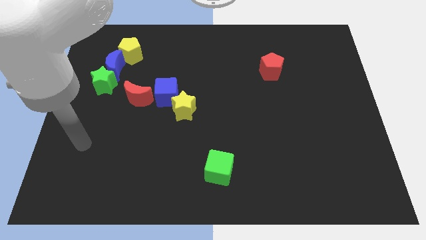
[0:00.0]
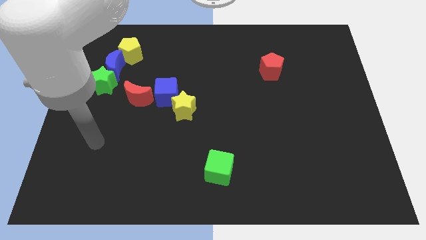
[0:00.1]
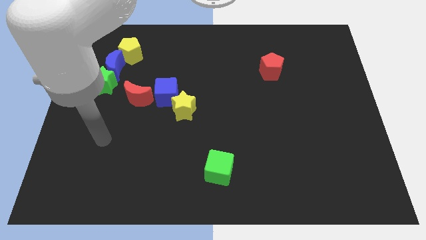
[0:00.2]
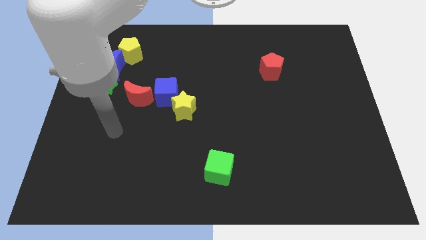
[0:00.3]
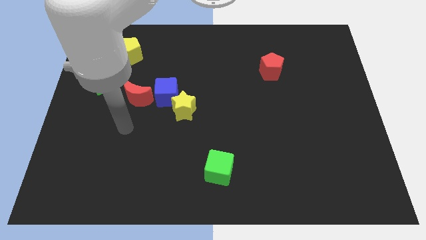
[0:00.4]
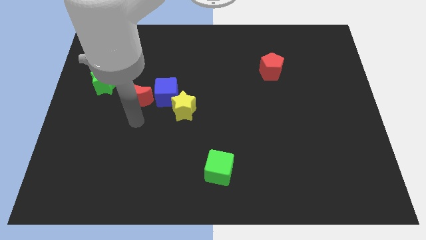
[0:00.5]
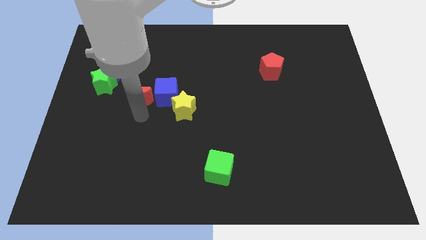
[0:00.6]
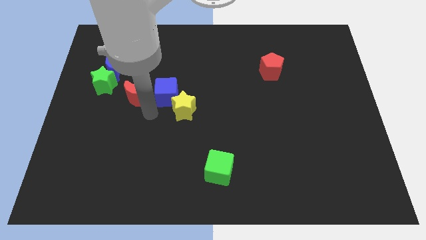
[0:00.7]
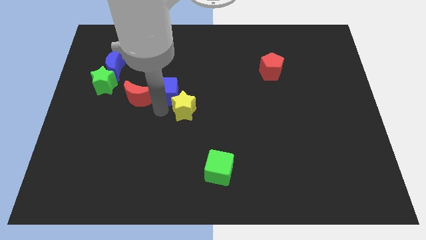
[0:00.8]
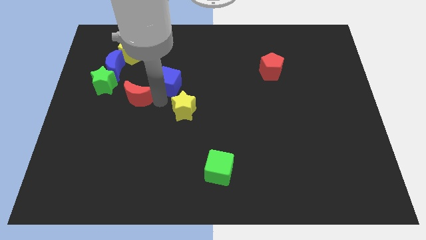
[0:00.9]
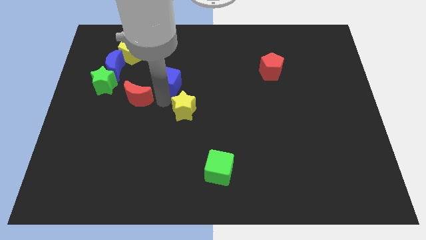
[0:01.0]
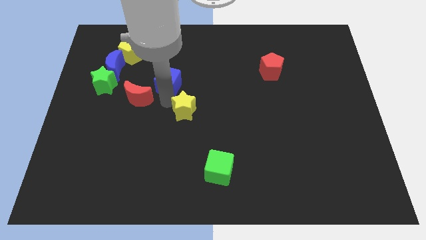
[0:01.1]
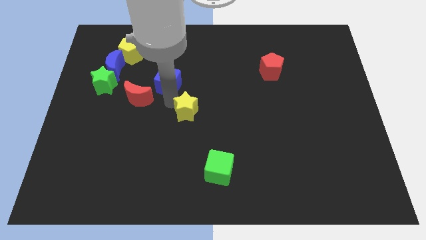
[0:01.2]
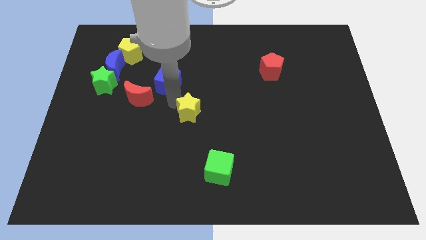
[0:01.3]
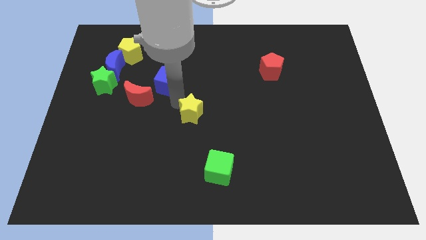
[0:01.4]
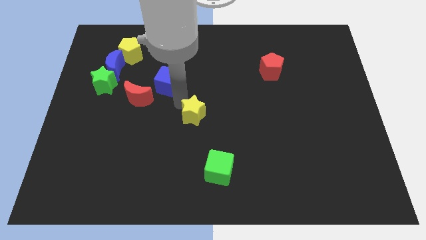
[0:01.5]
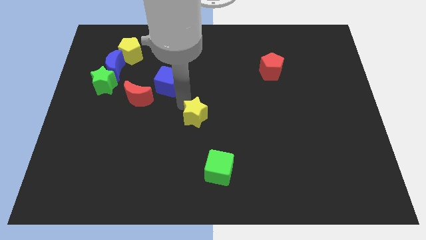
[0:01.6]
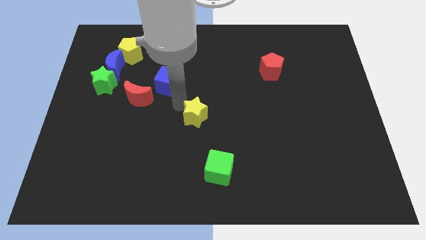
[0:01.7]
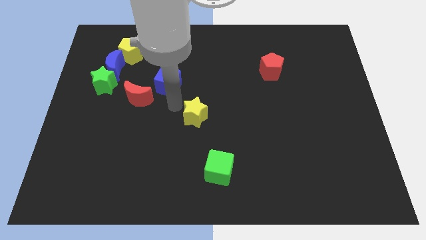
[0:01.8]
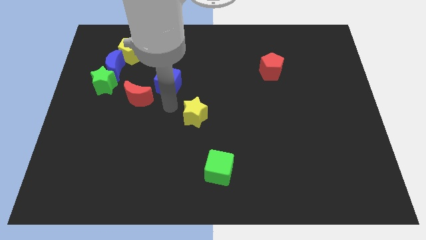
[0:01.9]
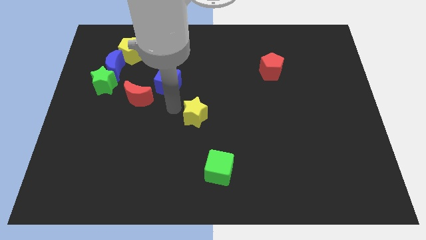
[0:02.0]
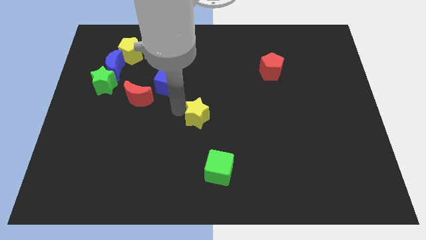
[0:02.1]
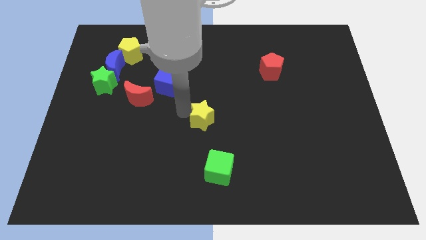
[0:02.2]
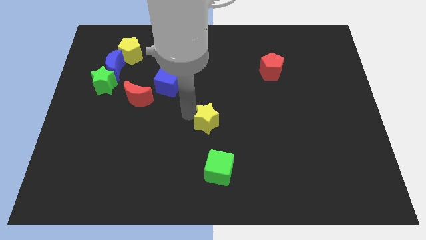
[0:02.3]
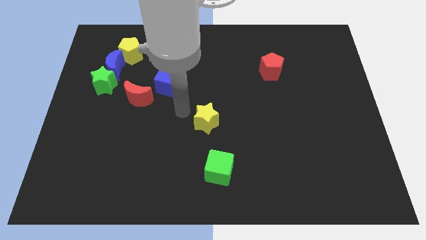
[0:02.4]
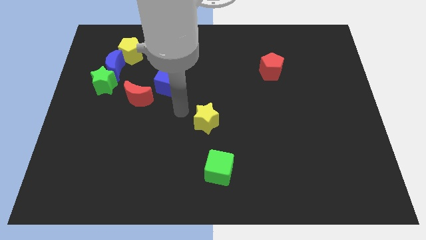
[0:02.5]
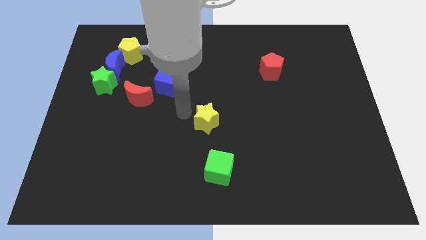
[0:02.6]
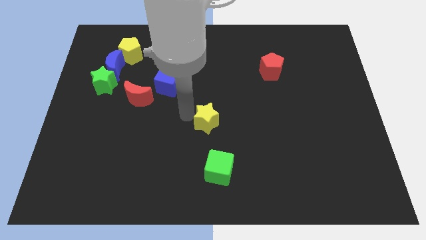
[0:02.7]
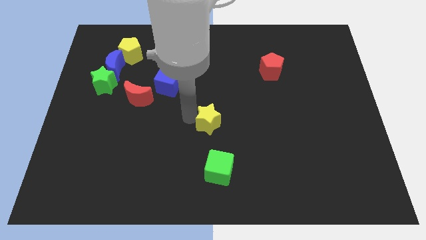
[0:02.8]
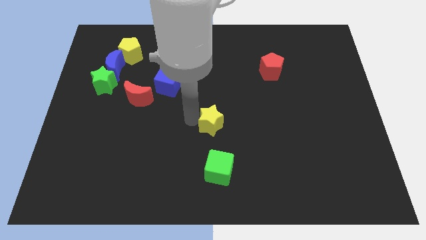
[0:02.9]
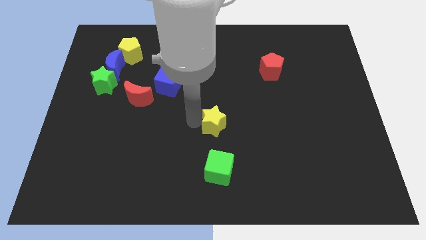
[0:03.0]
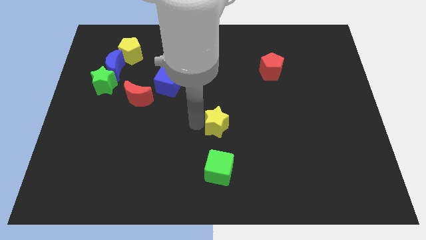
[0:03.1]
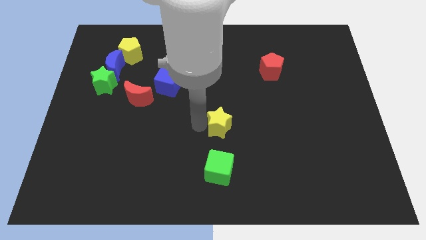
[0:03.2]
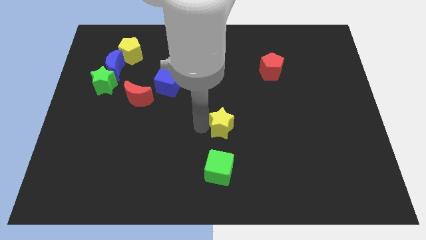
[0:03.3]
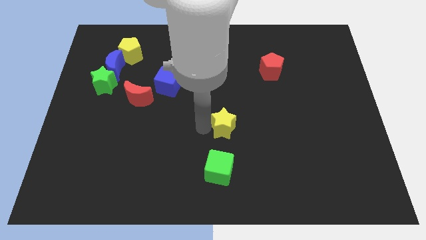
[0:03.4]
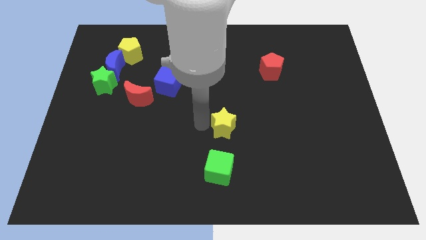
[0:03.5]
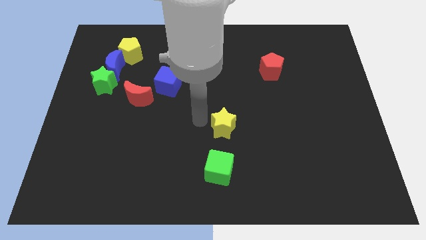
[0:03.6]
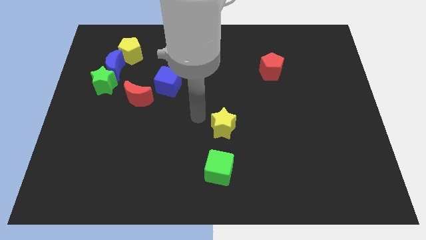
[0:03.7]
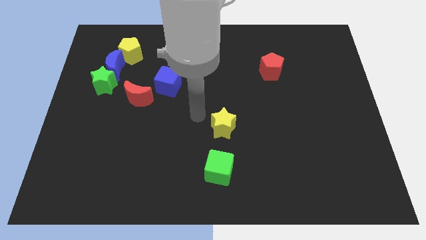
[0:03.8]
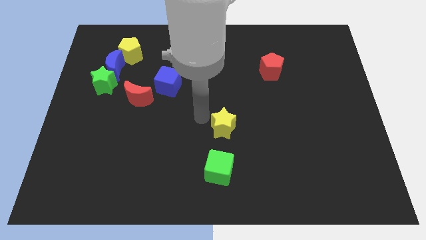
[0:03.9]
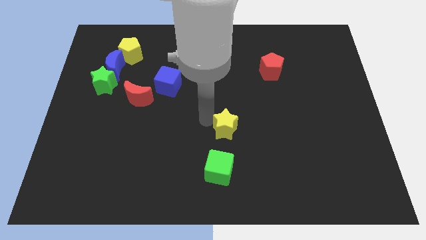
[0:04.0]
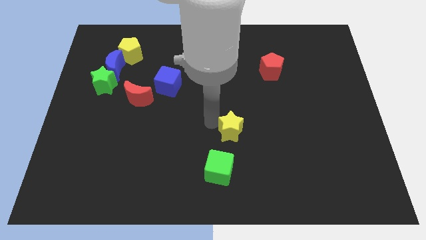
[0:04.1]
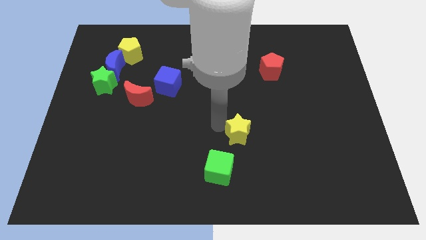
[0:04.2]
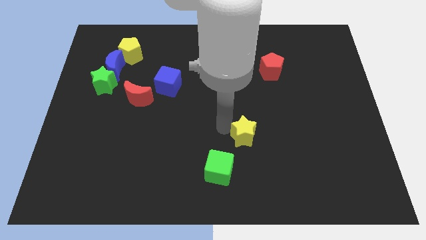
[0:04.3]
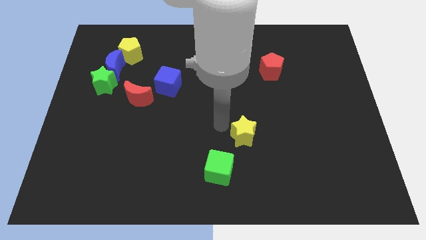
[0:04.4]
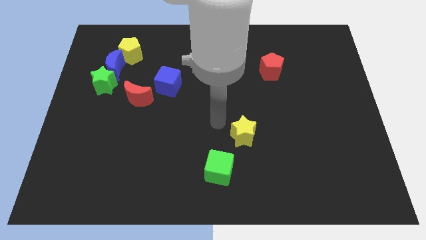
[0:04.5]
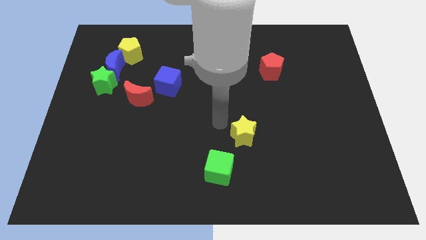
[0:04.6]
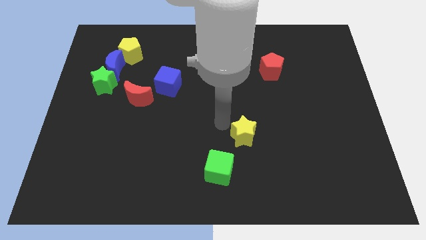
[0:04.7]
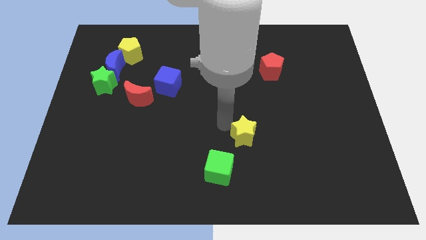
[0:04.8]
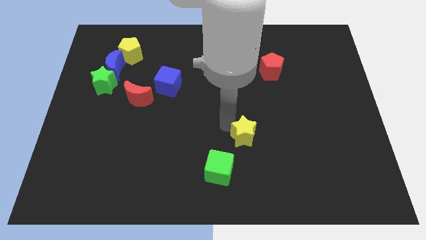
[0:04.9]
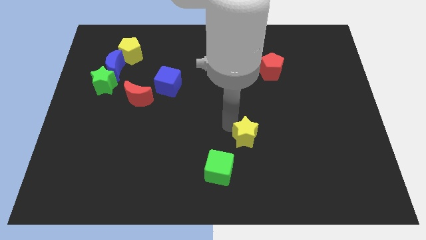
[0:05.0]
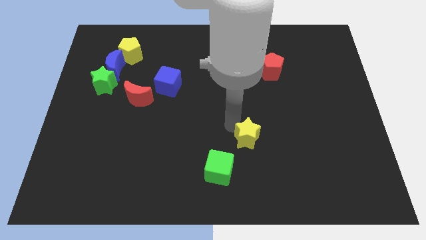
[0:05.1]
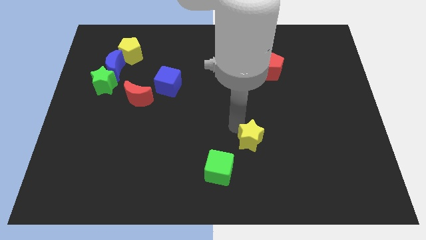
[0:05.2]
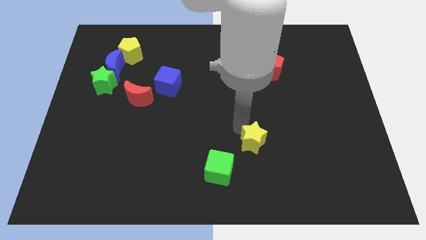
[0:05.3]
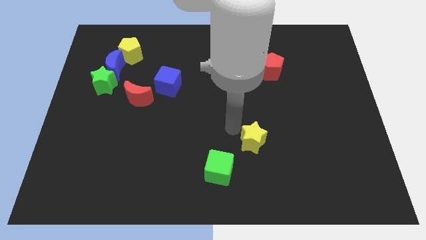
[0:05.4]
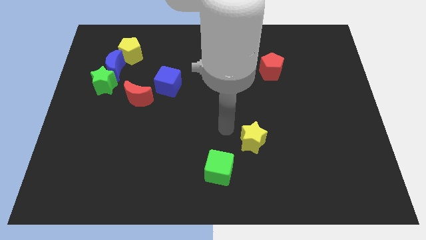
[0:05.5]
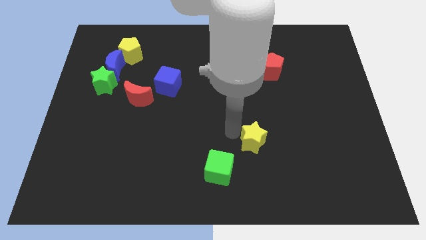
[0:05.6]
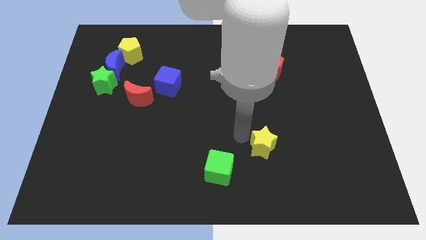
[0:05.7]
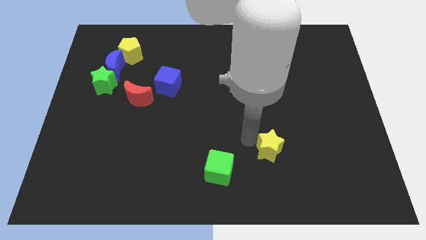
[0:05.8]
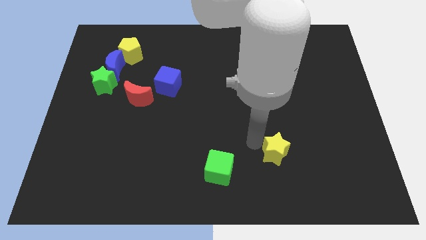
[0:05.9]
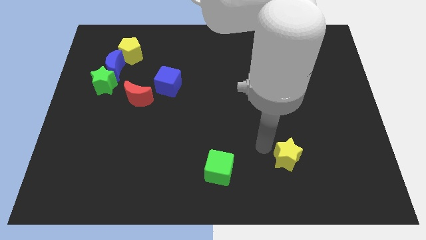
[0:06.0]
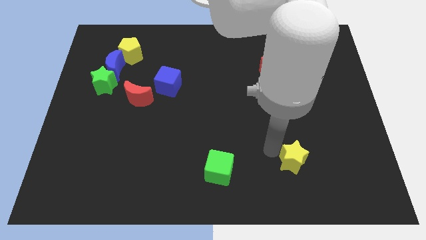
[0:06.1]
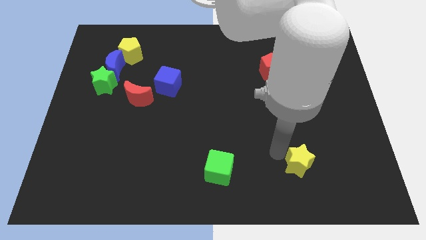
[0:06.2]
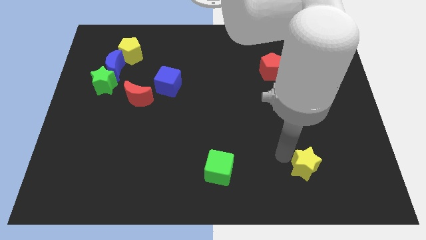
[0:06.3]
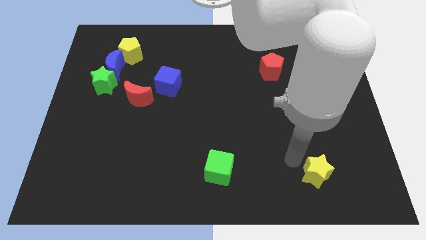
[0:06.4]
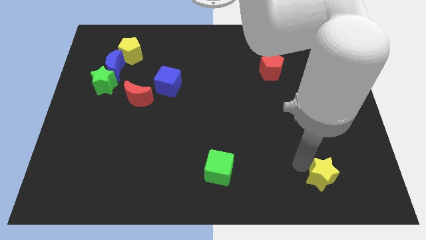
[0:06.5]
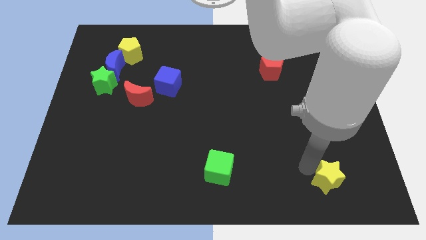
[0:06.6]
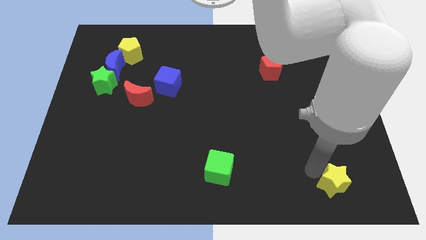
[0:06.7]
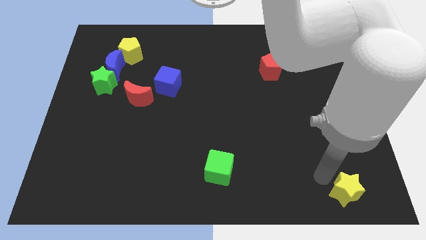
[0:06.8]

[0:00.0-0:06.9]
slide the yellow star to the bottom right of the board

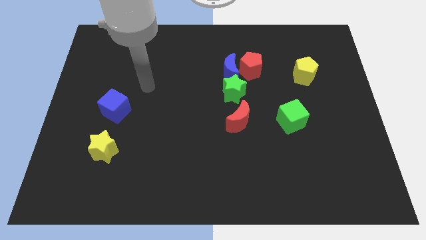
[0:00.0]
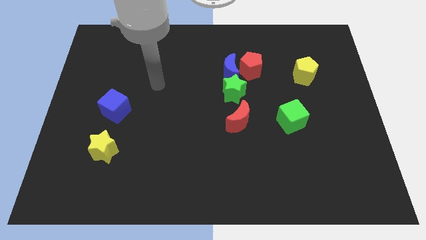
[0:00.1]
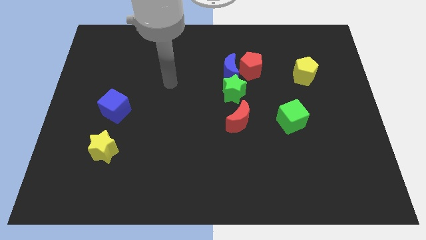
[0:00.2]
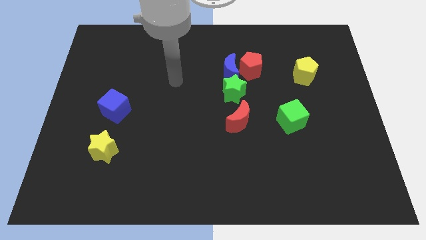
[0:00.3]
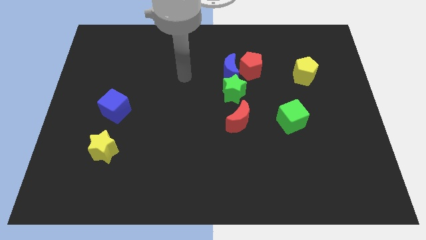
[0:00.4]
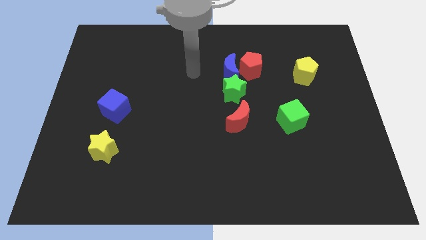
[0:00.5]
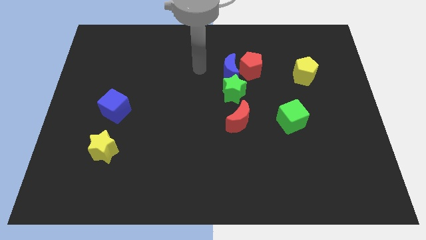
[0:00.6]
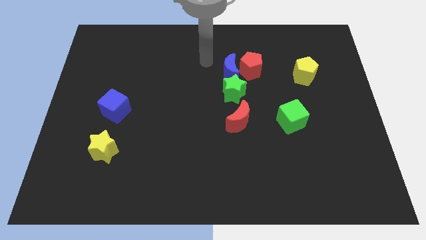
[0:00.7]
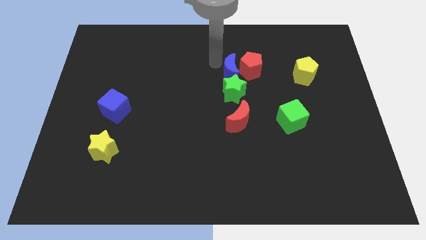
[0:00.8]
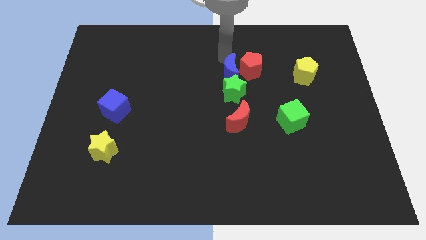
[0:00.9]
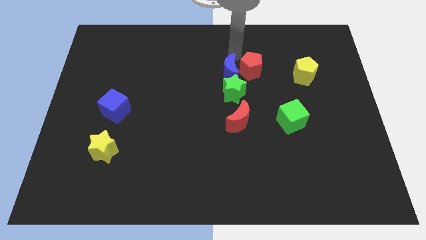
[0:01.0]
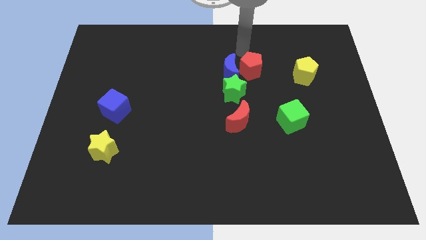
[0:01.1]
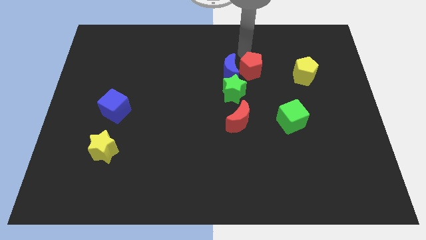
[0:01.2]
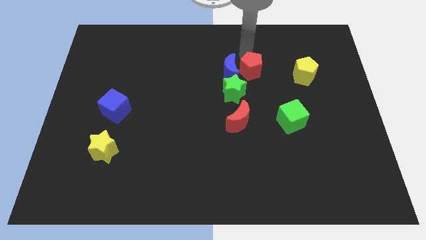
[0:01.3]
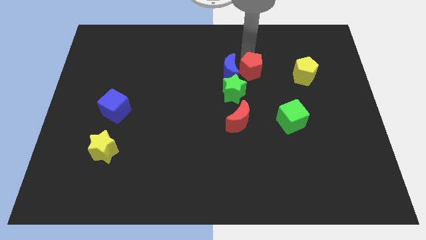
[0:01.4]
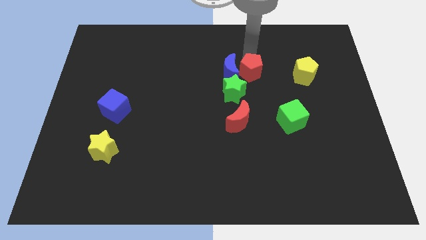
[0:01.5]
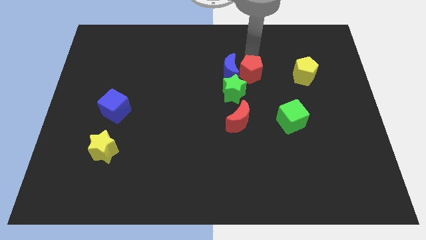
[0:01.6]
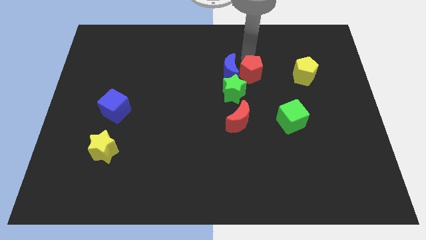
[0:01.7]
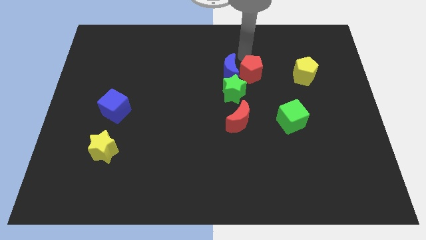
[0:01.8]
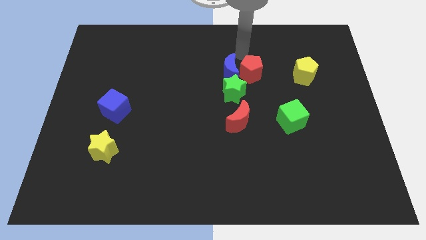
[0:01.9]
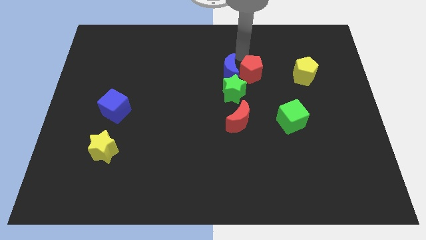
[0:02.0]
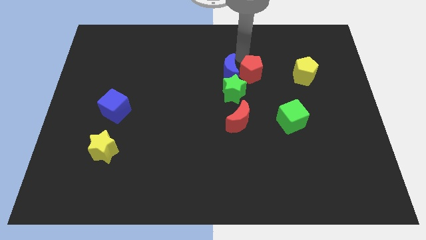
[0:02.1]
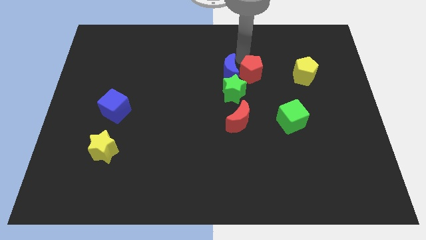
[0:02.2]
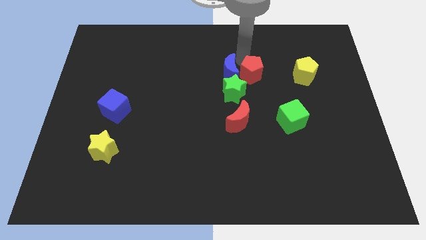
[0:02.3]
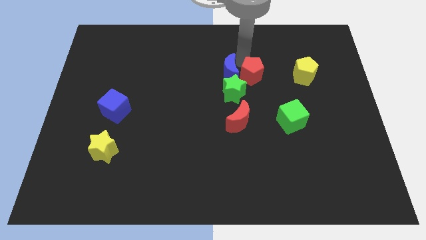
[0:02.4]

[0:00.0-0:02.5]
slide the red pentagon to the middle of the board
